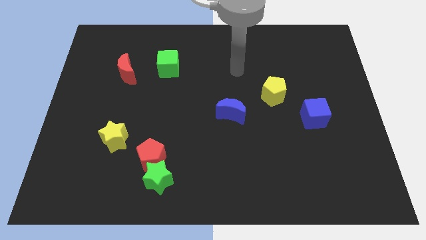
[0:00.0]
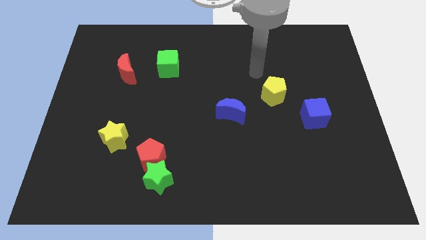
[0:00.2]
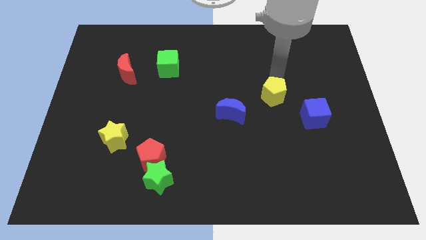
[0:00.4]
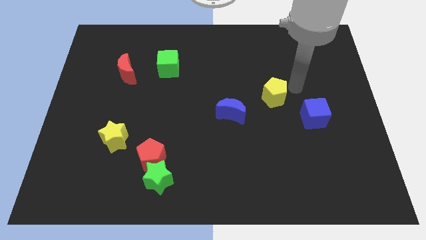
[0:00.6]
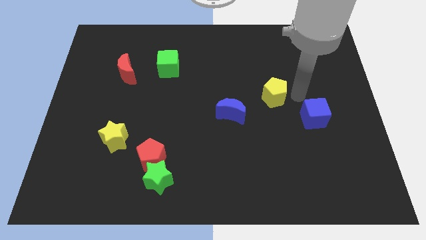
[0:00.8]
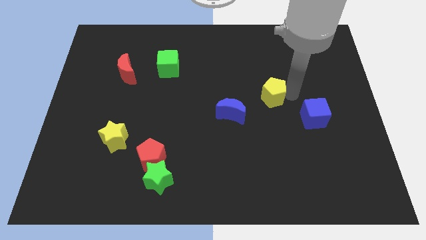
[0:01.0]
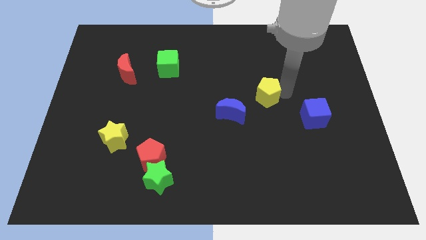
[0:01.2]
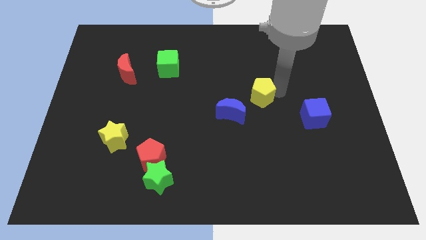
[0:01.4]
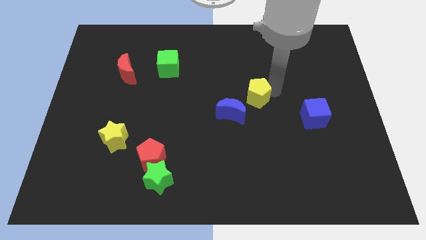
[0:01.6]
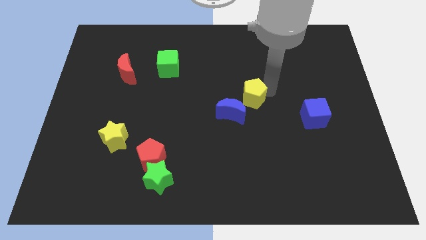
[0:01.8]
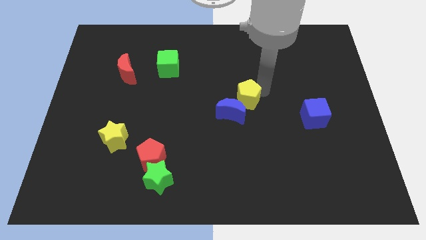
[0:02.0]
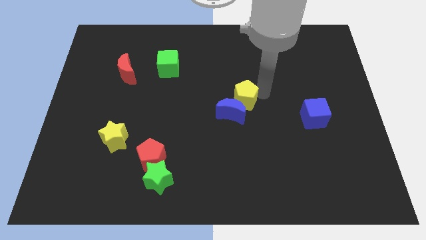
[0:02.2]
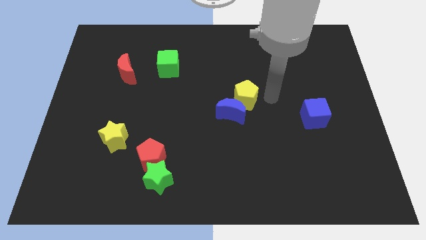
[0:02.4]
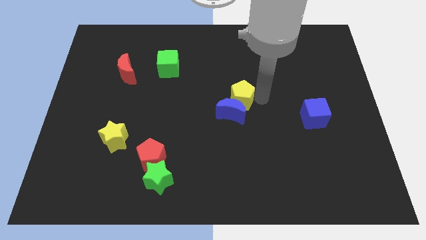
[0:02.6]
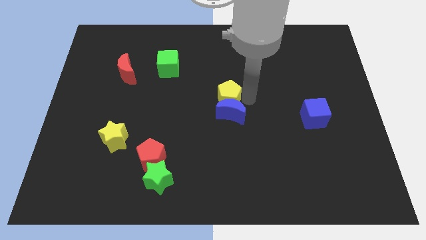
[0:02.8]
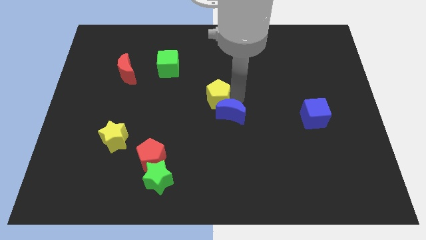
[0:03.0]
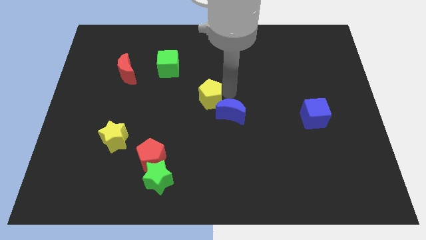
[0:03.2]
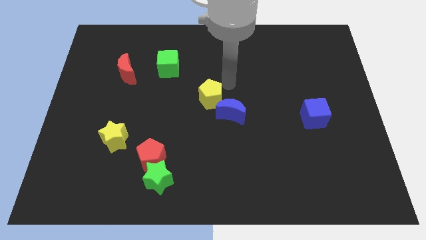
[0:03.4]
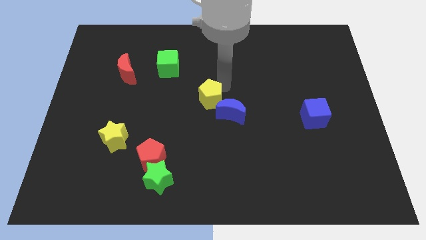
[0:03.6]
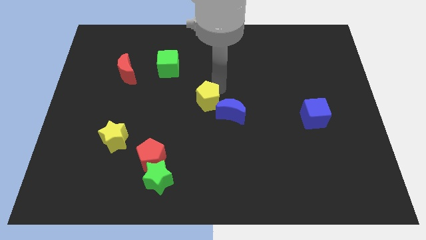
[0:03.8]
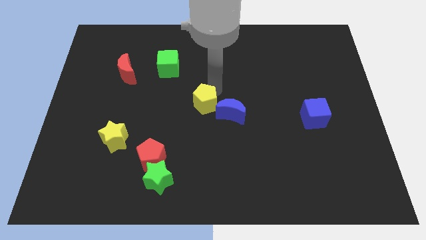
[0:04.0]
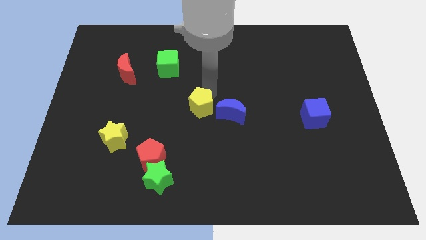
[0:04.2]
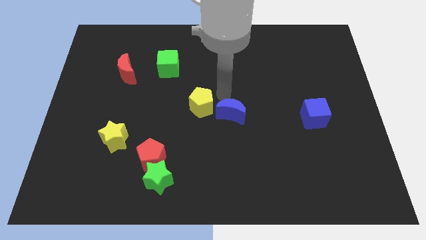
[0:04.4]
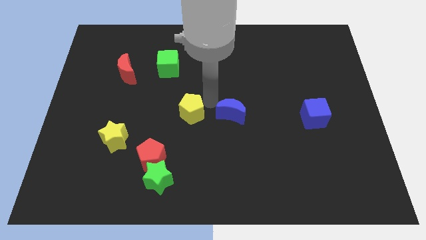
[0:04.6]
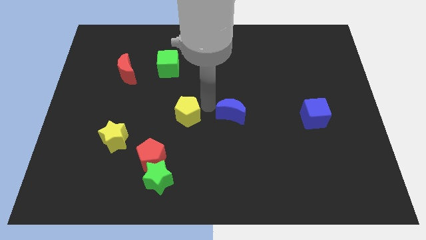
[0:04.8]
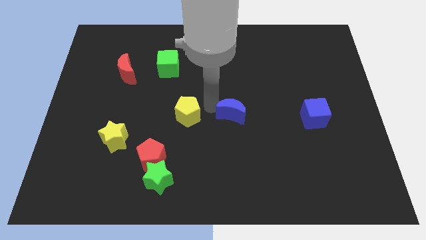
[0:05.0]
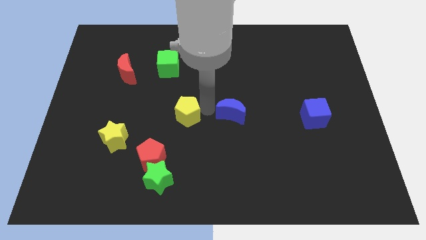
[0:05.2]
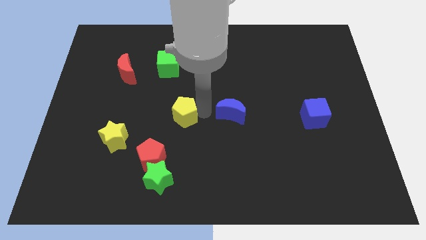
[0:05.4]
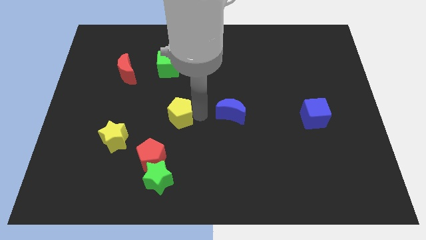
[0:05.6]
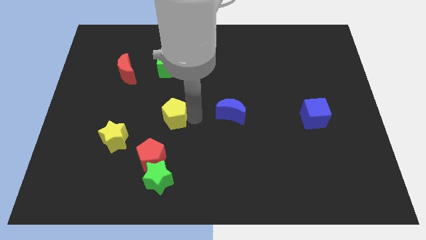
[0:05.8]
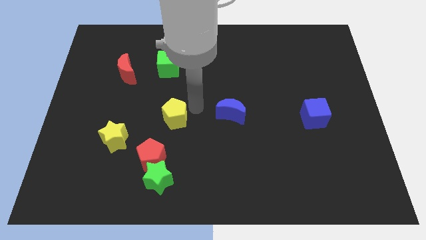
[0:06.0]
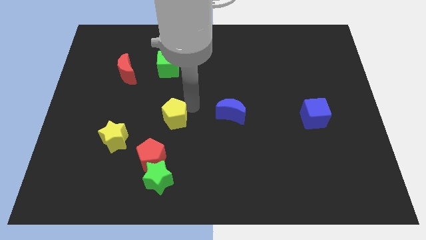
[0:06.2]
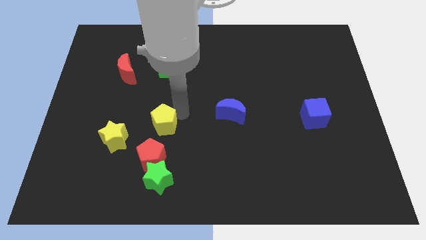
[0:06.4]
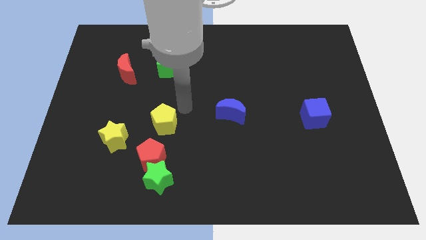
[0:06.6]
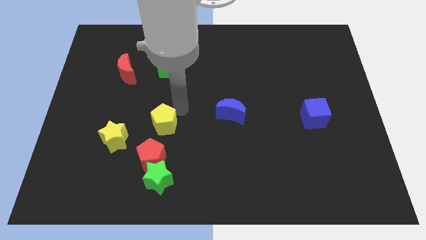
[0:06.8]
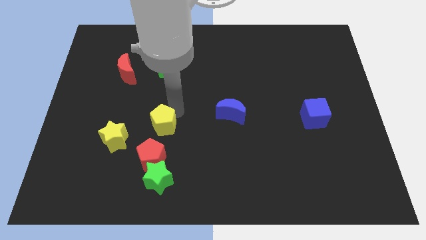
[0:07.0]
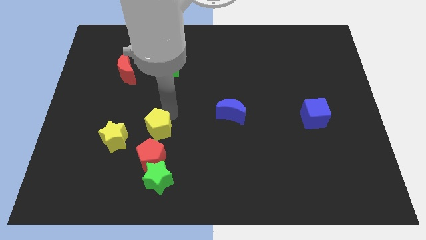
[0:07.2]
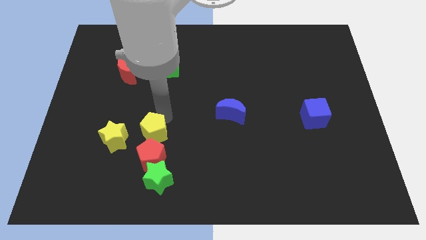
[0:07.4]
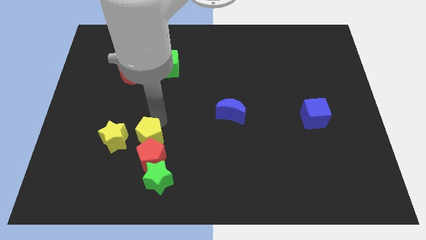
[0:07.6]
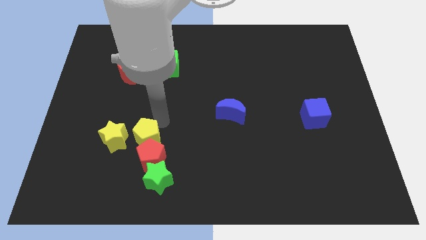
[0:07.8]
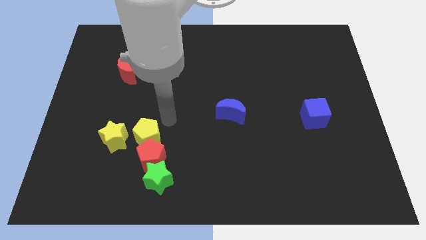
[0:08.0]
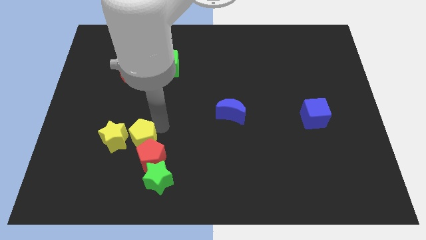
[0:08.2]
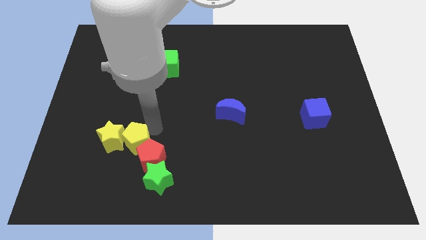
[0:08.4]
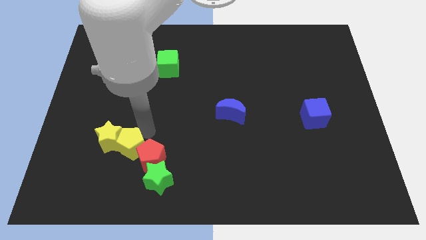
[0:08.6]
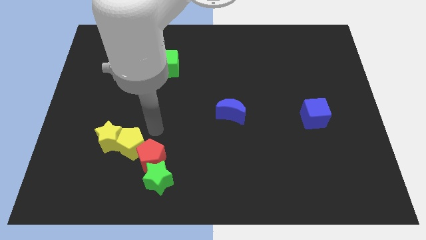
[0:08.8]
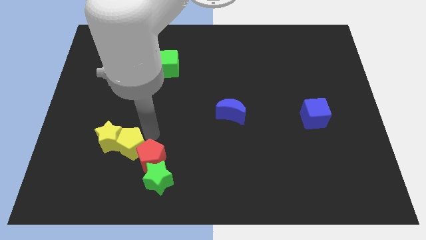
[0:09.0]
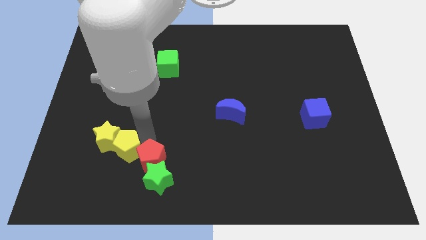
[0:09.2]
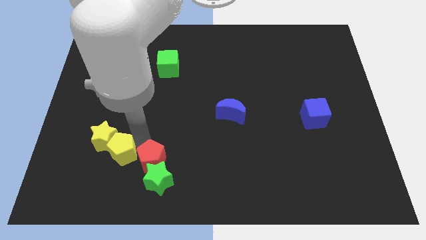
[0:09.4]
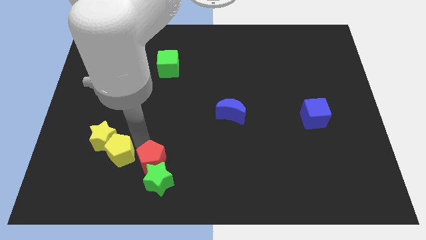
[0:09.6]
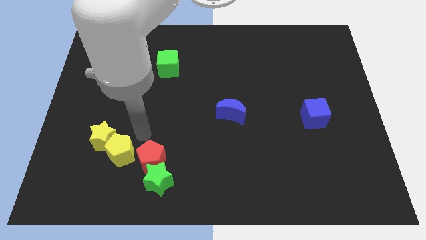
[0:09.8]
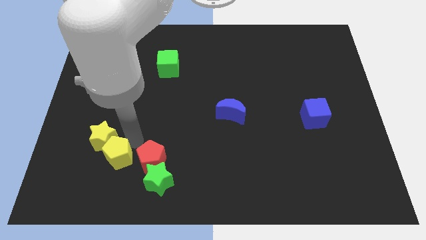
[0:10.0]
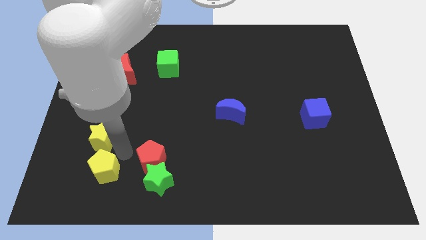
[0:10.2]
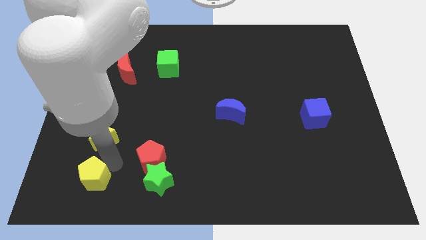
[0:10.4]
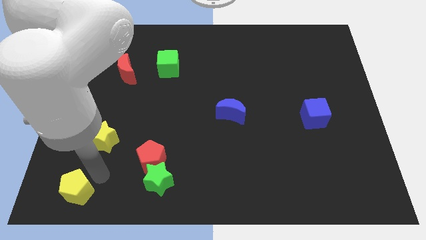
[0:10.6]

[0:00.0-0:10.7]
put the yellow pentagon to the lower left corner

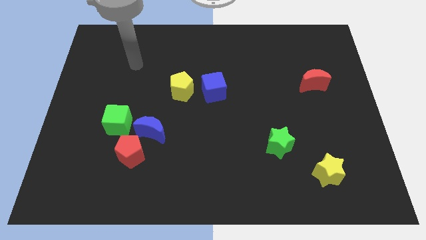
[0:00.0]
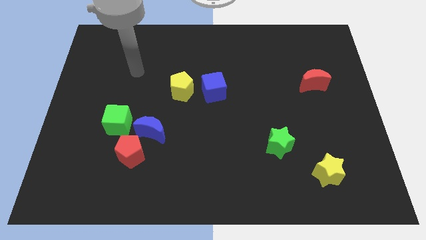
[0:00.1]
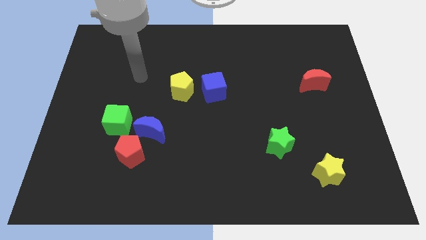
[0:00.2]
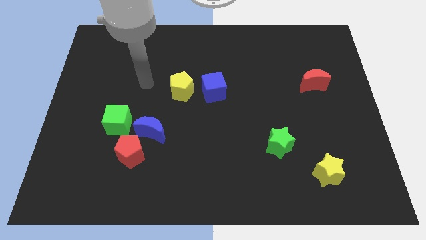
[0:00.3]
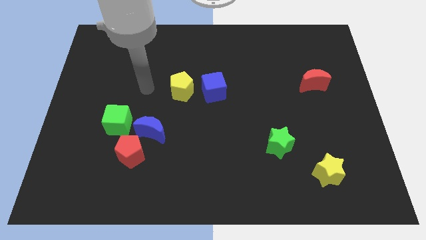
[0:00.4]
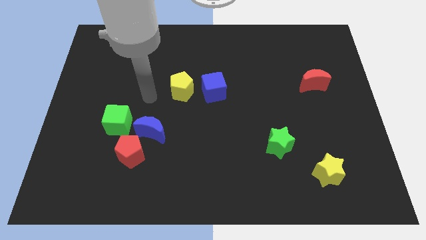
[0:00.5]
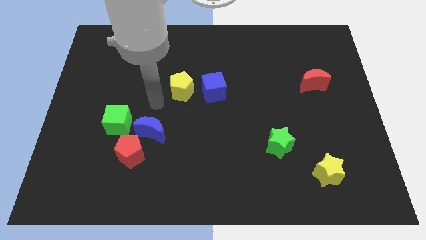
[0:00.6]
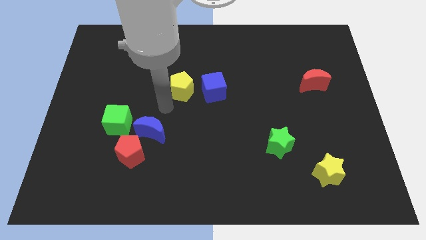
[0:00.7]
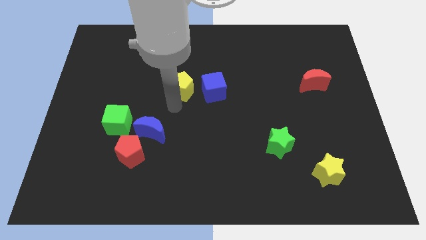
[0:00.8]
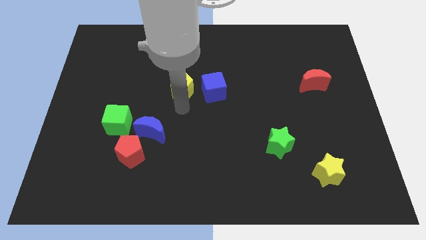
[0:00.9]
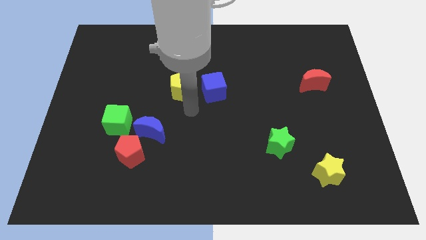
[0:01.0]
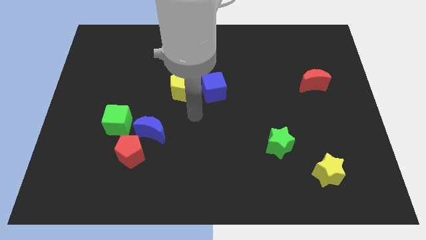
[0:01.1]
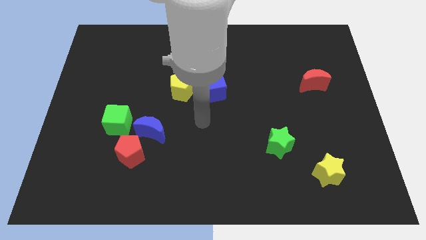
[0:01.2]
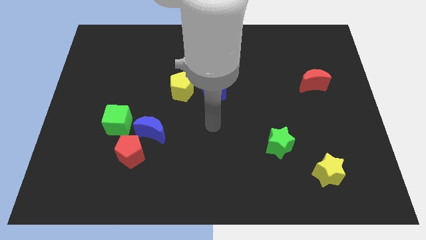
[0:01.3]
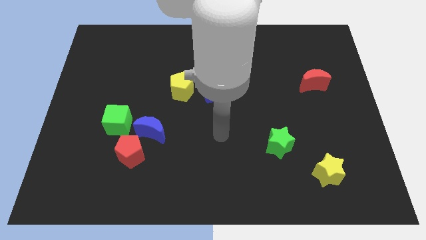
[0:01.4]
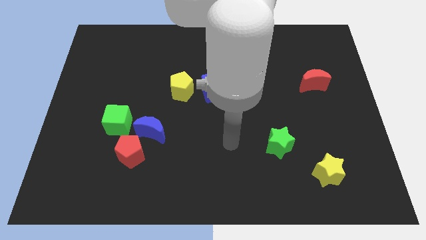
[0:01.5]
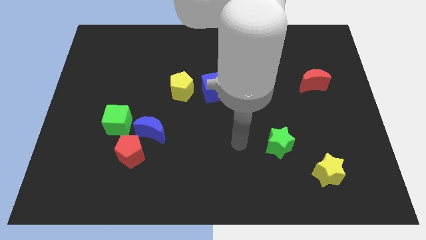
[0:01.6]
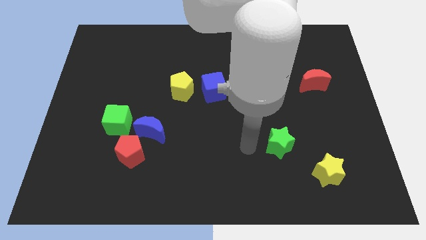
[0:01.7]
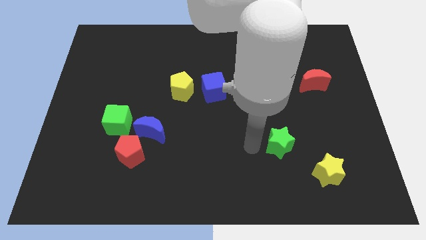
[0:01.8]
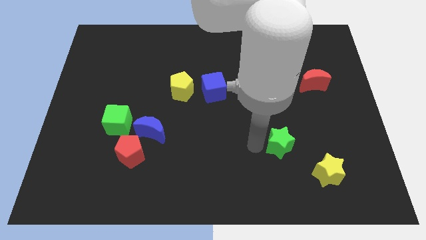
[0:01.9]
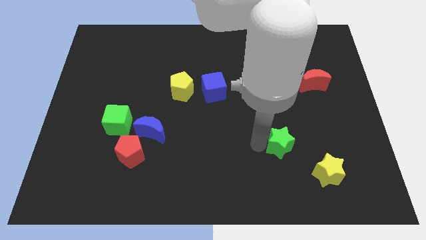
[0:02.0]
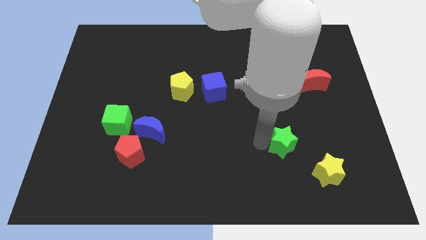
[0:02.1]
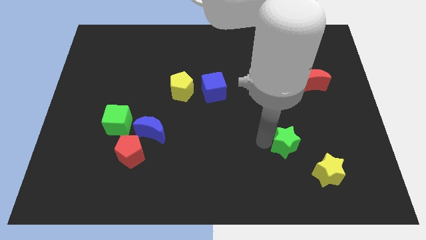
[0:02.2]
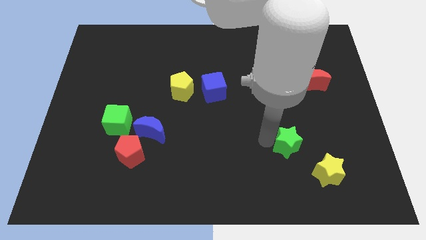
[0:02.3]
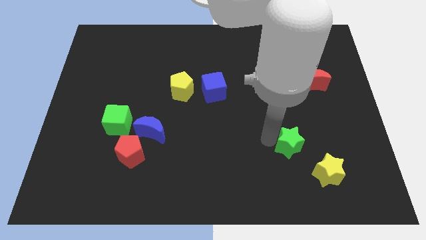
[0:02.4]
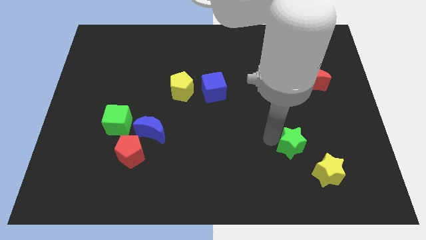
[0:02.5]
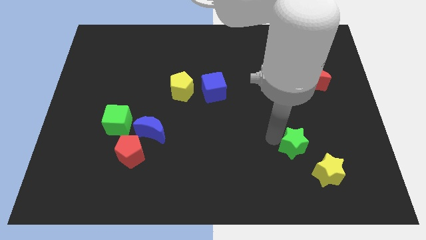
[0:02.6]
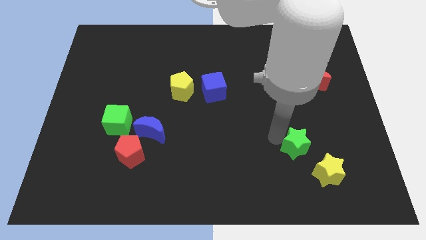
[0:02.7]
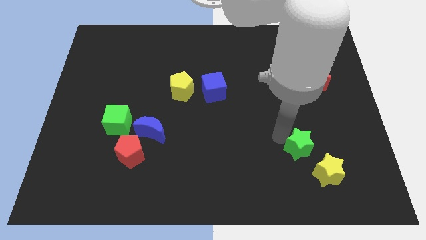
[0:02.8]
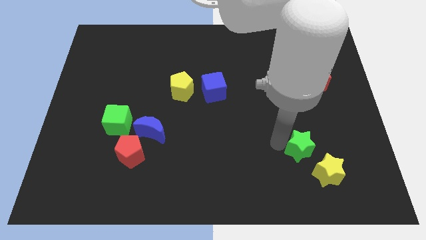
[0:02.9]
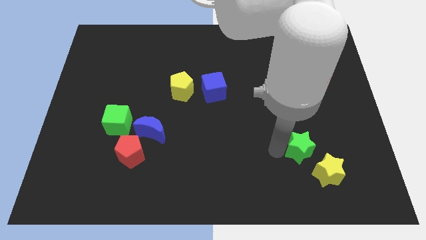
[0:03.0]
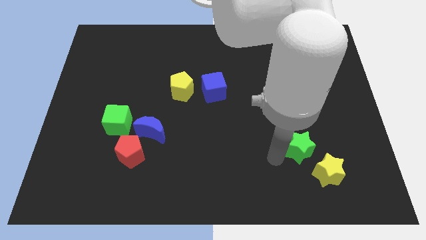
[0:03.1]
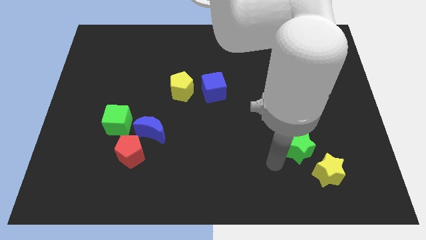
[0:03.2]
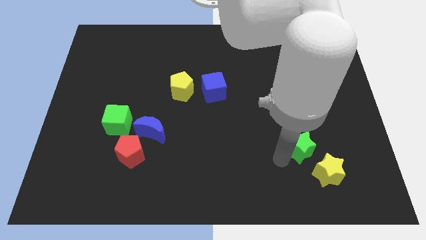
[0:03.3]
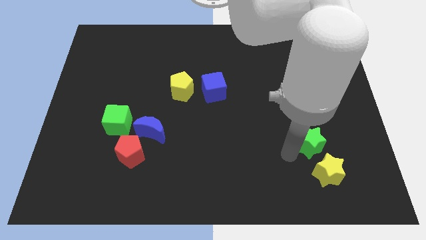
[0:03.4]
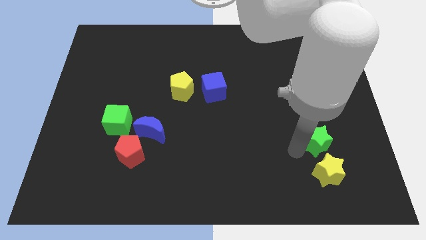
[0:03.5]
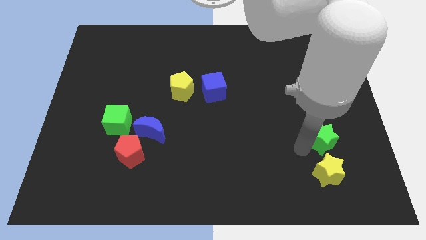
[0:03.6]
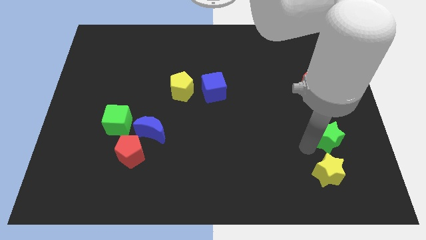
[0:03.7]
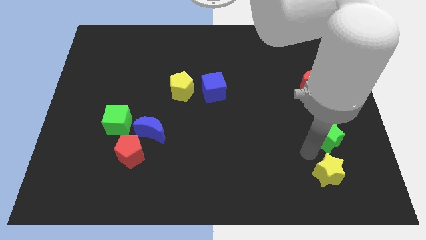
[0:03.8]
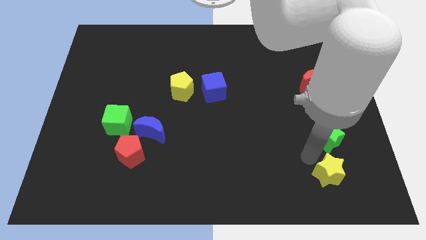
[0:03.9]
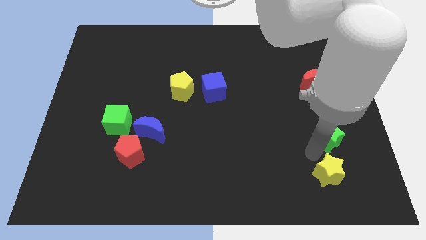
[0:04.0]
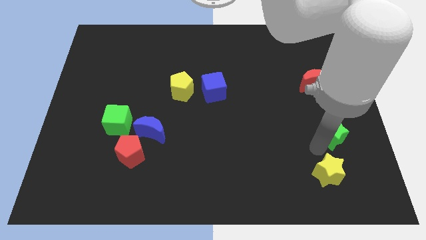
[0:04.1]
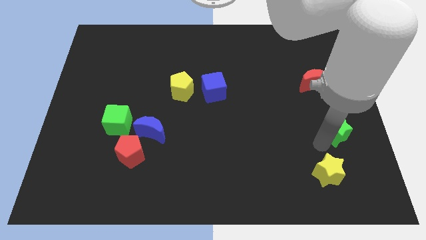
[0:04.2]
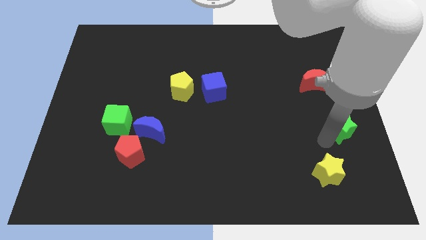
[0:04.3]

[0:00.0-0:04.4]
slide the green star to the right side of the board
